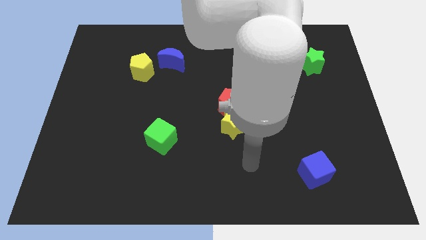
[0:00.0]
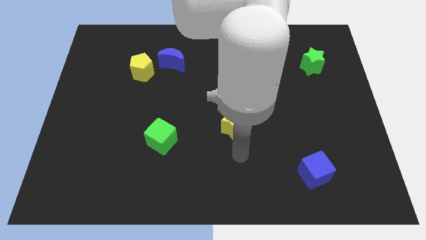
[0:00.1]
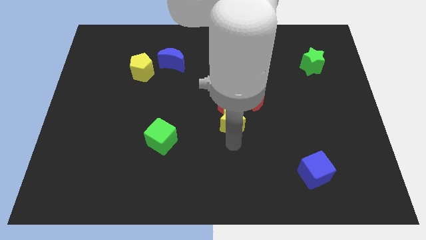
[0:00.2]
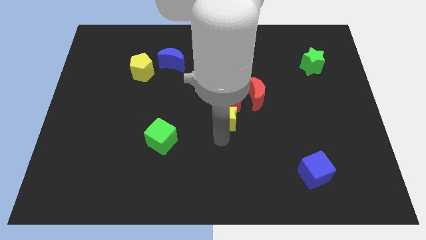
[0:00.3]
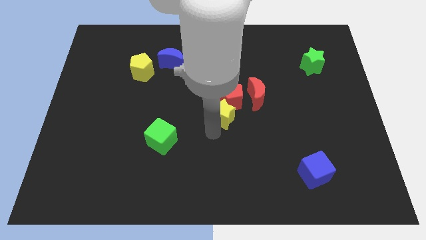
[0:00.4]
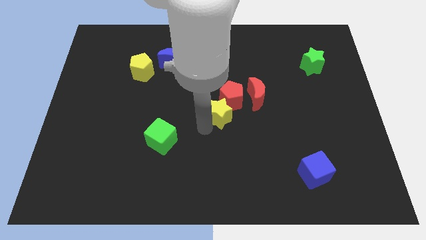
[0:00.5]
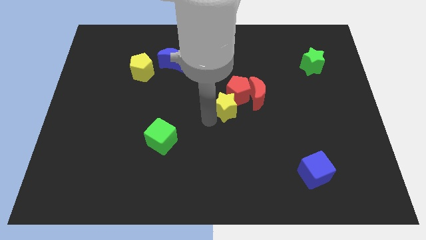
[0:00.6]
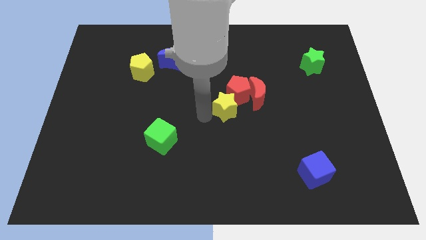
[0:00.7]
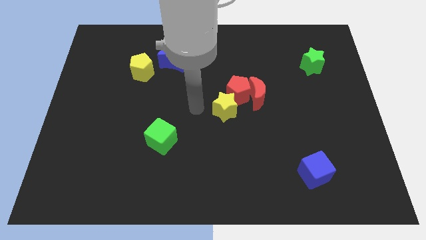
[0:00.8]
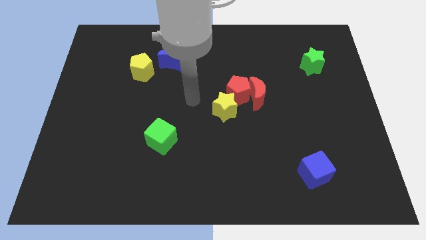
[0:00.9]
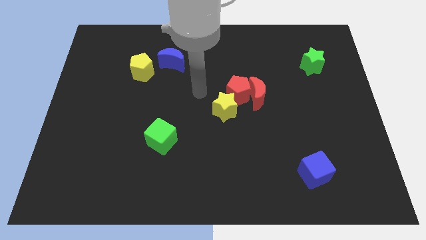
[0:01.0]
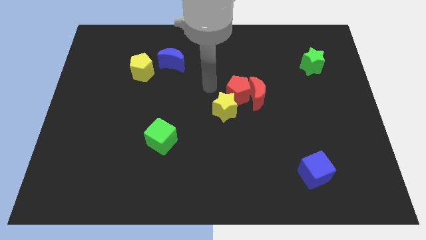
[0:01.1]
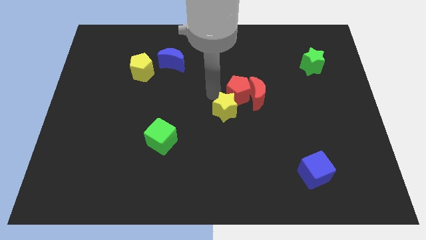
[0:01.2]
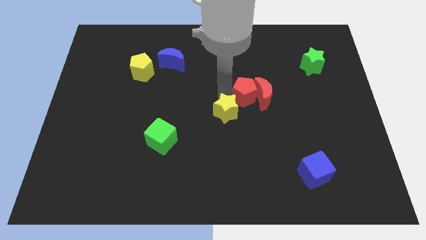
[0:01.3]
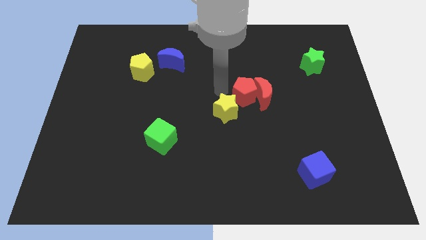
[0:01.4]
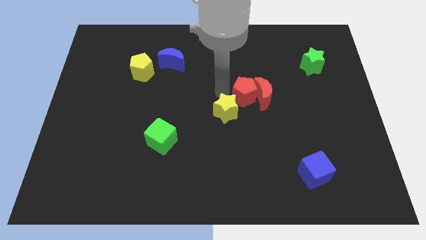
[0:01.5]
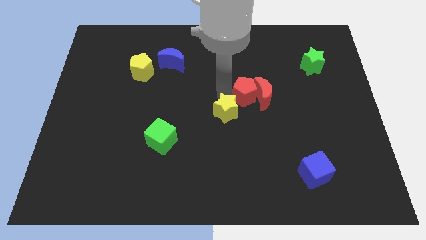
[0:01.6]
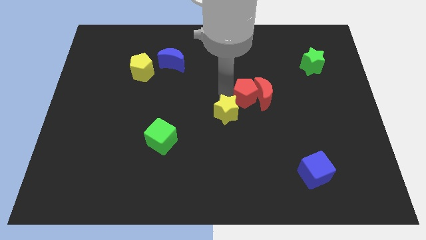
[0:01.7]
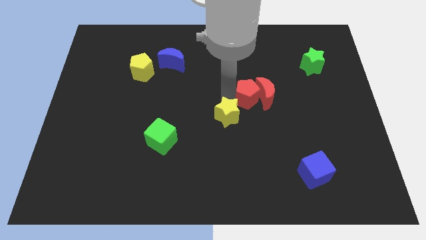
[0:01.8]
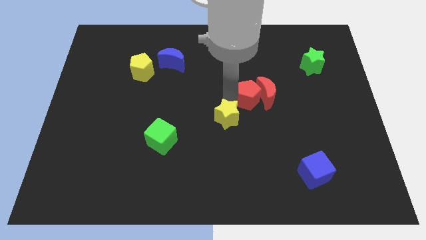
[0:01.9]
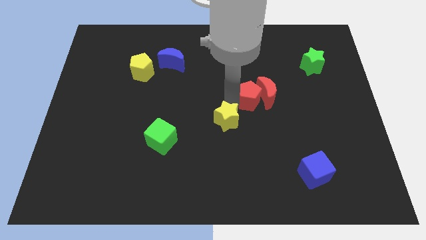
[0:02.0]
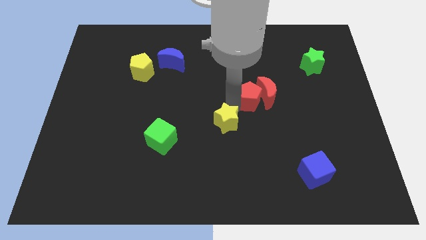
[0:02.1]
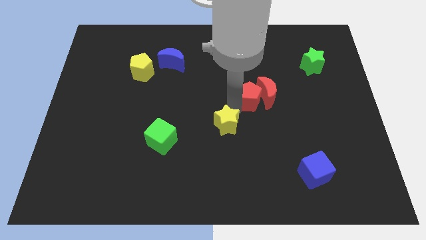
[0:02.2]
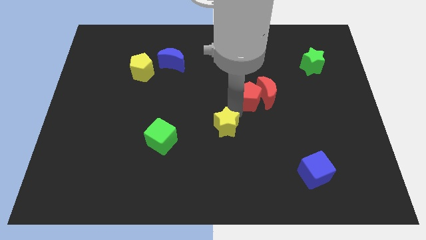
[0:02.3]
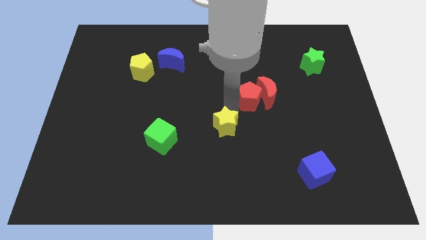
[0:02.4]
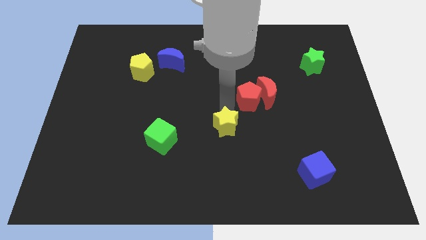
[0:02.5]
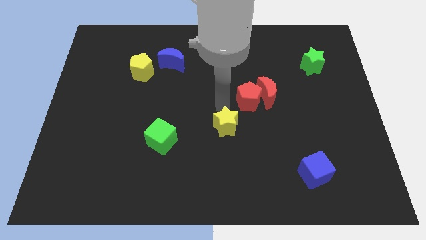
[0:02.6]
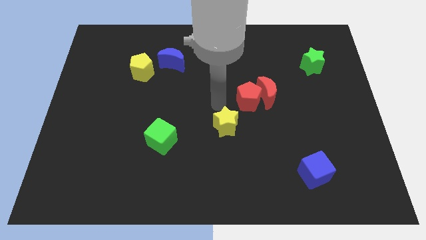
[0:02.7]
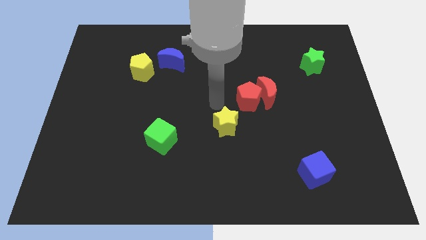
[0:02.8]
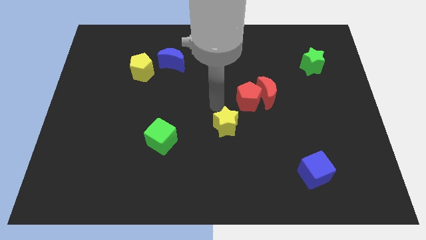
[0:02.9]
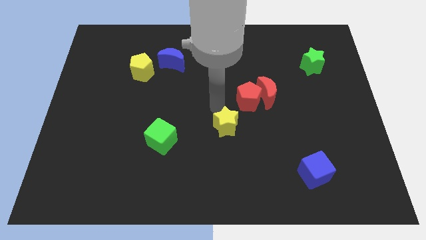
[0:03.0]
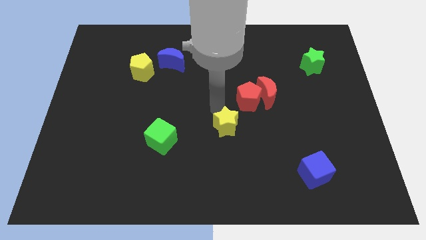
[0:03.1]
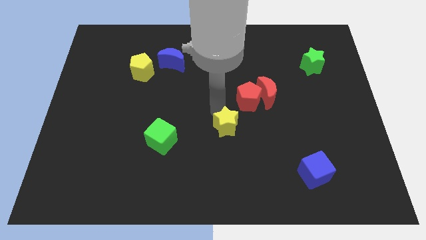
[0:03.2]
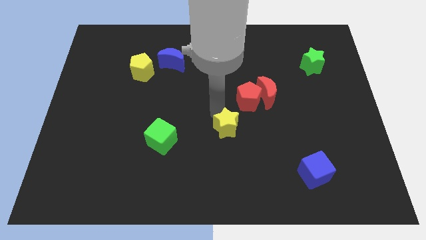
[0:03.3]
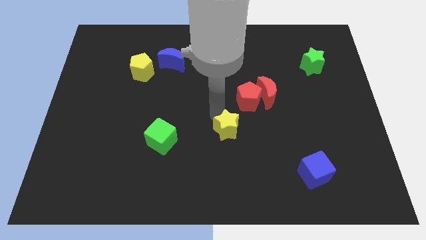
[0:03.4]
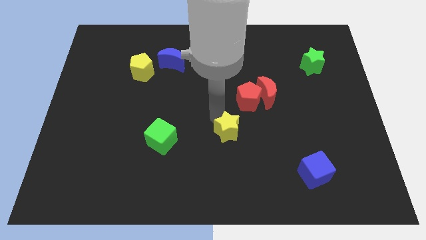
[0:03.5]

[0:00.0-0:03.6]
move the yellow star away from the red pentagon

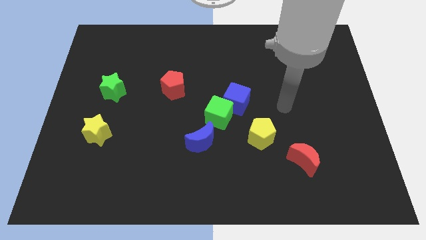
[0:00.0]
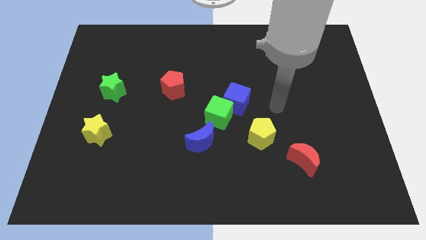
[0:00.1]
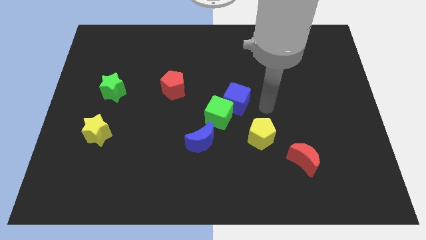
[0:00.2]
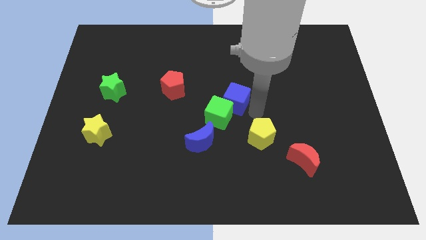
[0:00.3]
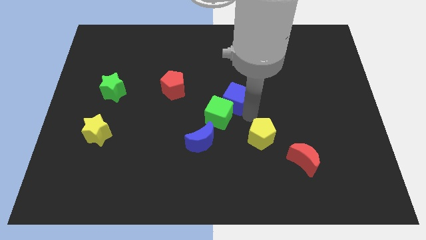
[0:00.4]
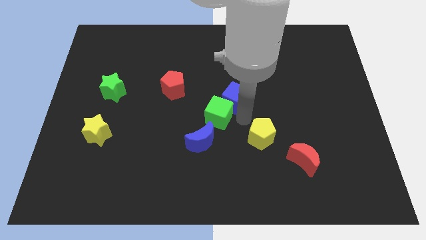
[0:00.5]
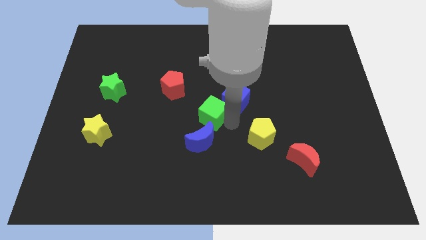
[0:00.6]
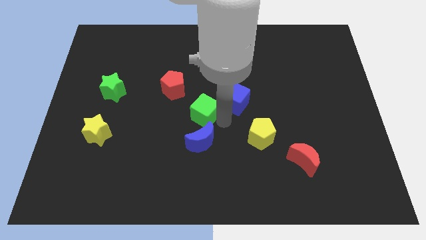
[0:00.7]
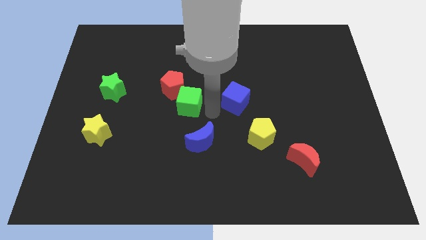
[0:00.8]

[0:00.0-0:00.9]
move the blue cube away from the green cube

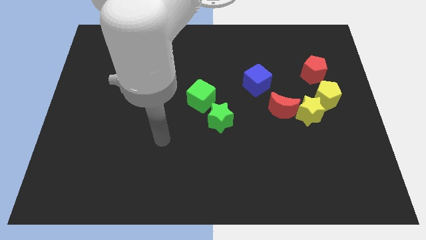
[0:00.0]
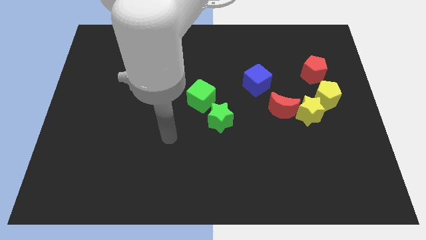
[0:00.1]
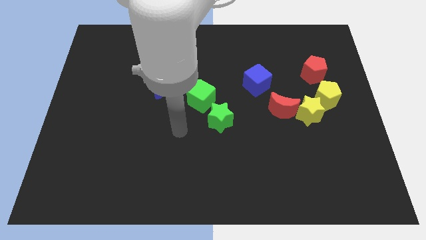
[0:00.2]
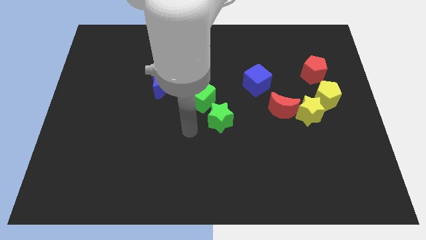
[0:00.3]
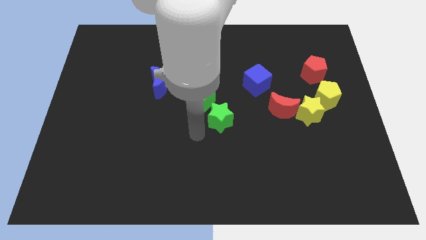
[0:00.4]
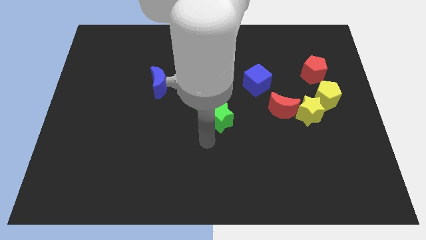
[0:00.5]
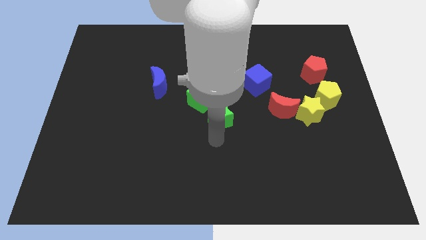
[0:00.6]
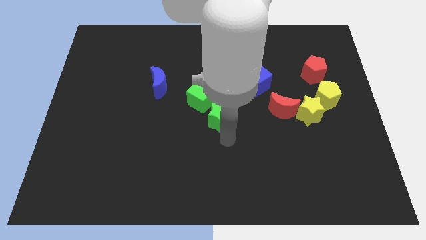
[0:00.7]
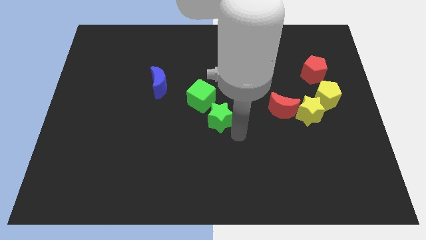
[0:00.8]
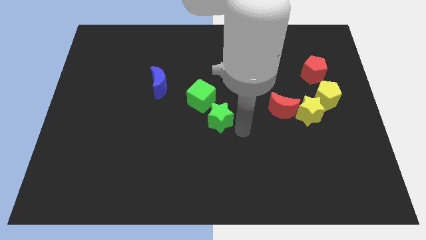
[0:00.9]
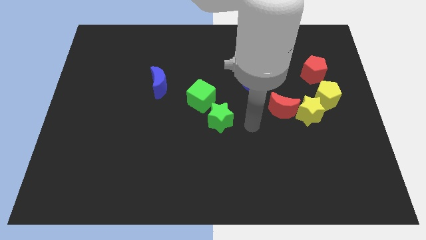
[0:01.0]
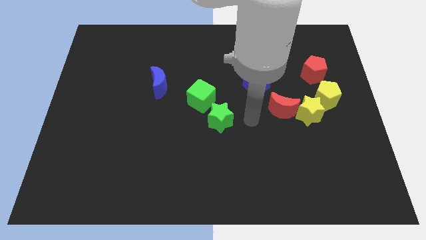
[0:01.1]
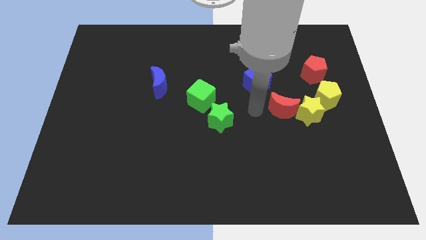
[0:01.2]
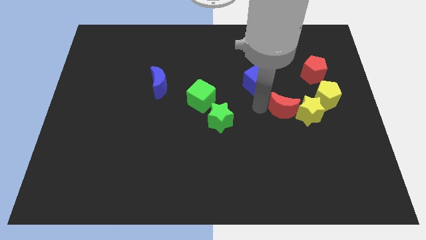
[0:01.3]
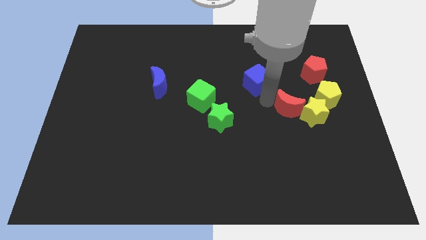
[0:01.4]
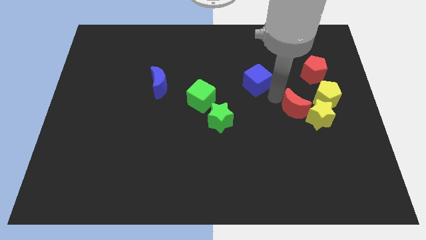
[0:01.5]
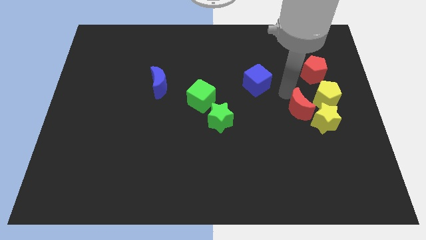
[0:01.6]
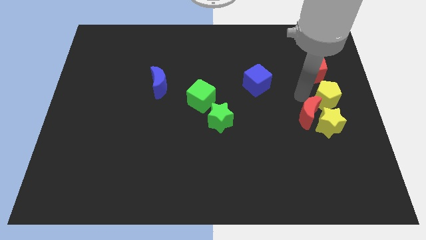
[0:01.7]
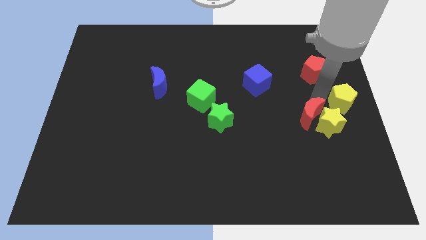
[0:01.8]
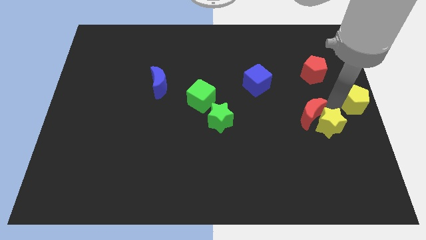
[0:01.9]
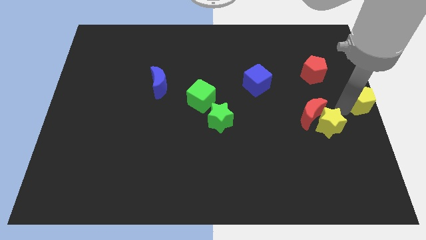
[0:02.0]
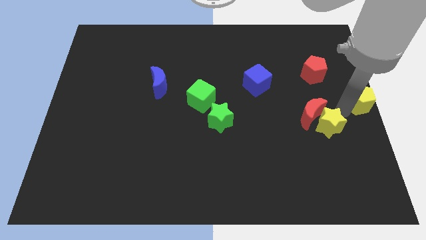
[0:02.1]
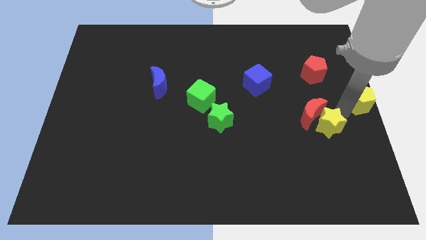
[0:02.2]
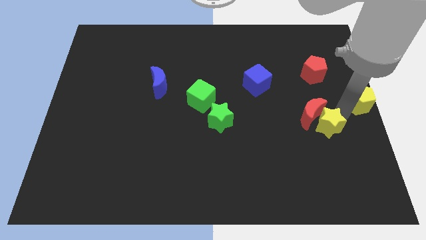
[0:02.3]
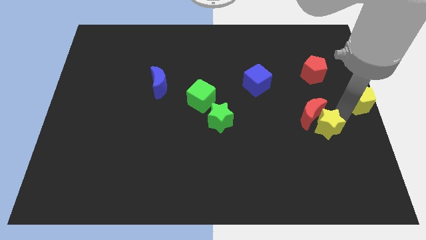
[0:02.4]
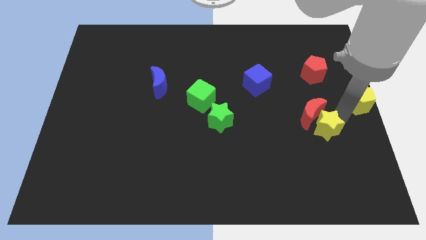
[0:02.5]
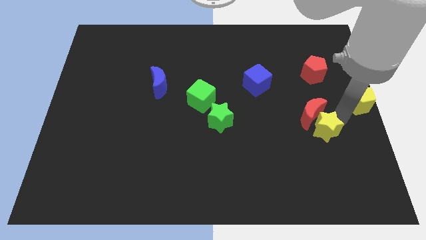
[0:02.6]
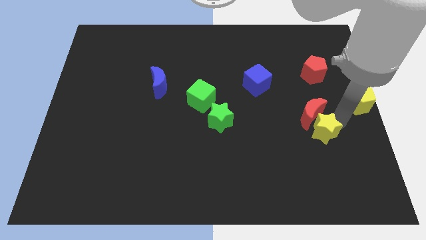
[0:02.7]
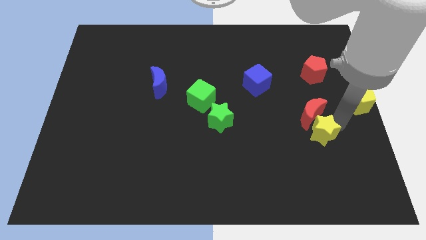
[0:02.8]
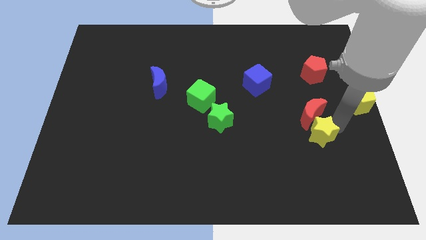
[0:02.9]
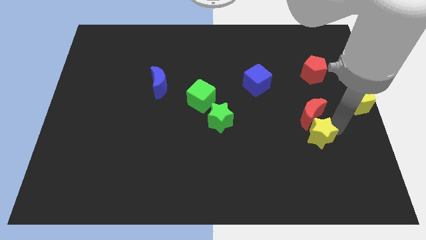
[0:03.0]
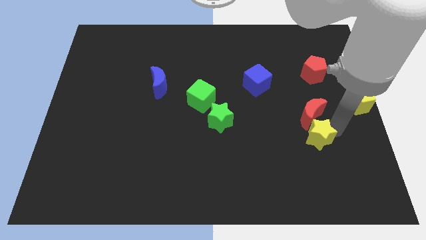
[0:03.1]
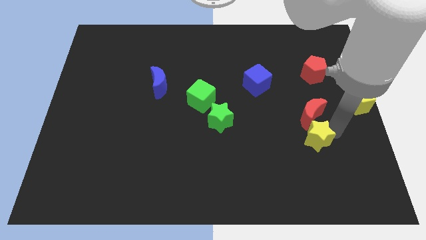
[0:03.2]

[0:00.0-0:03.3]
separate the yellow star from the red moon and yellow pentagon

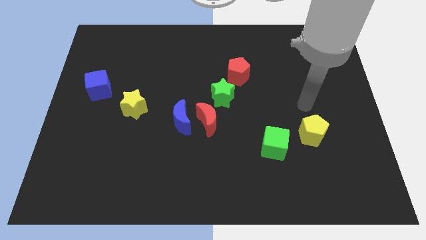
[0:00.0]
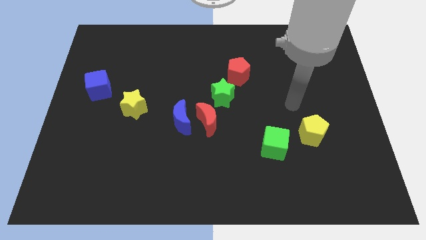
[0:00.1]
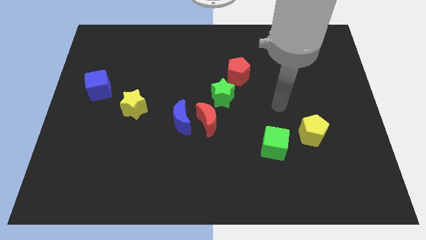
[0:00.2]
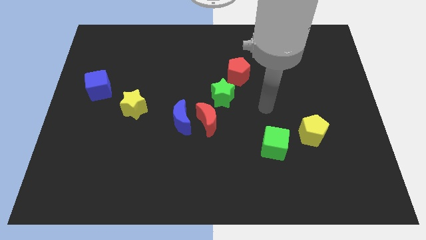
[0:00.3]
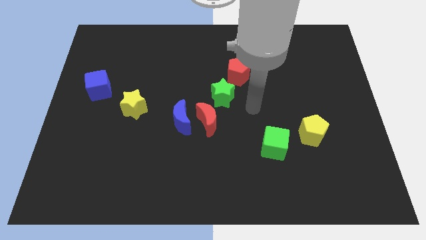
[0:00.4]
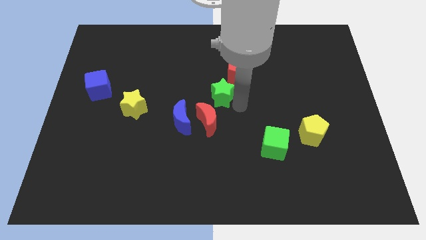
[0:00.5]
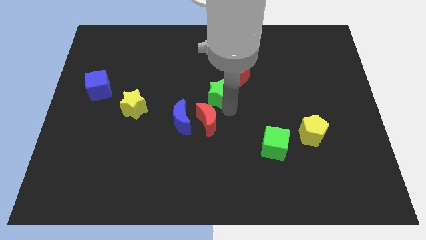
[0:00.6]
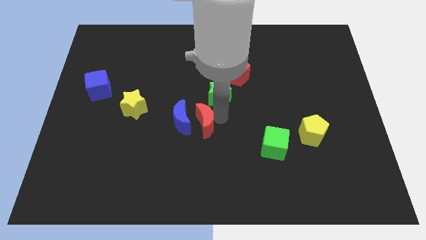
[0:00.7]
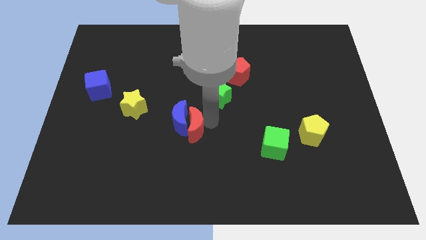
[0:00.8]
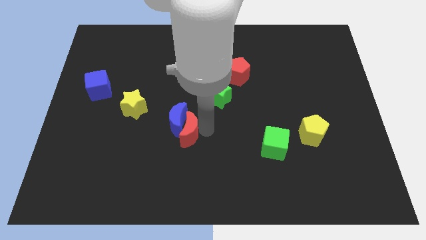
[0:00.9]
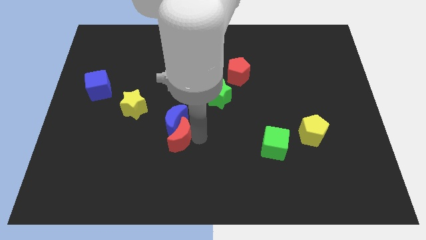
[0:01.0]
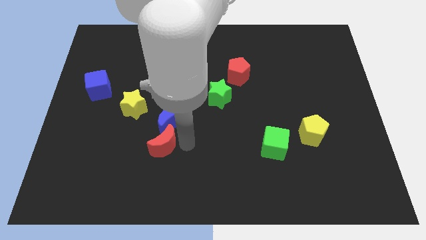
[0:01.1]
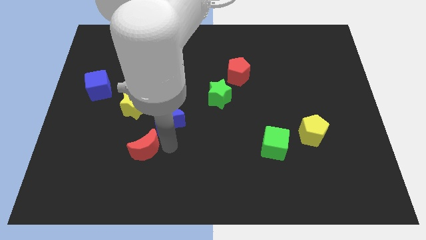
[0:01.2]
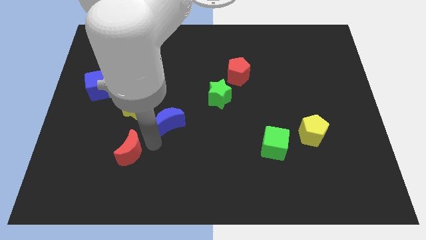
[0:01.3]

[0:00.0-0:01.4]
separate the blue moon from the red moon
